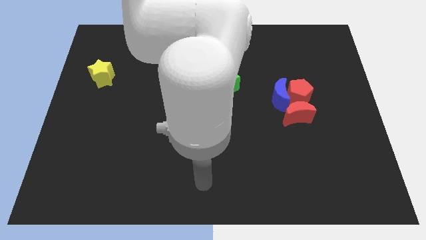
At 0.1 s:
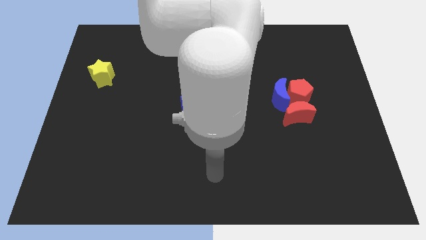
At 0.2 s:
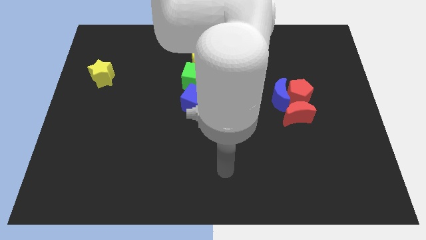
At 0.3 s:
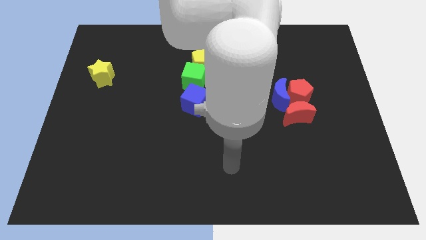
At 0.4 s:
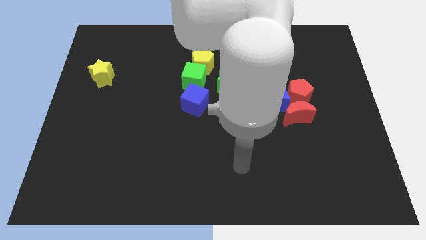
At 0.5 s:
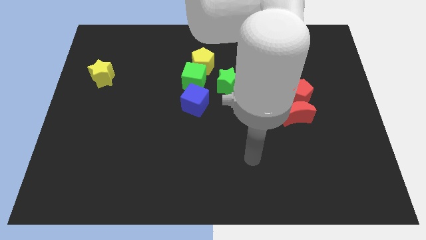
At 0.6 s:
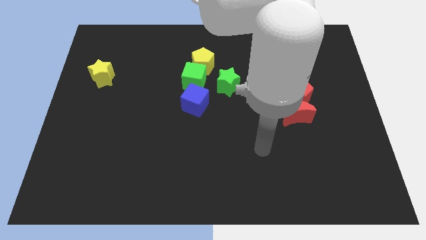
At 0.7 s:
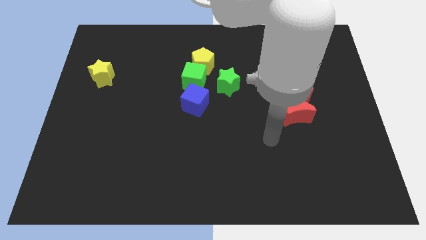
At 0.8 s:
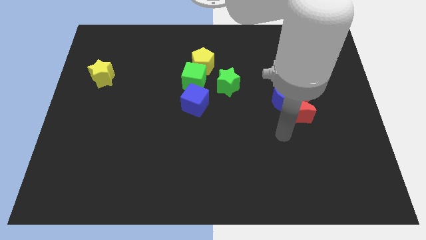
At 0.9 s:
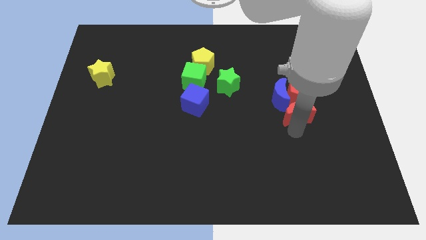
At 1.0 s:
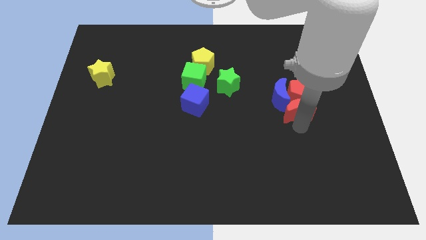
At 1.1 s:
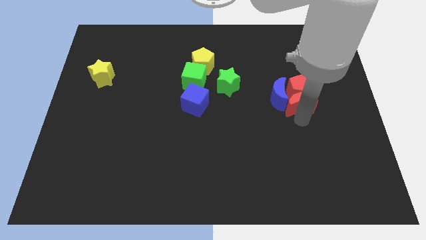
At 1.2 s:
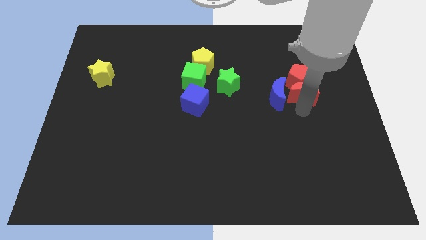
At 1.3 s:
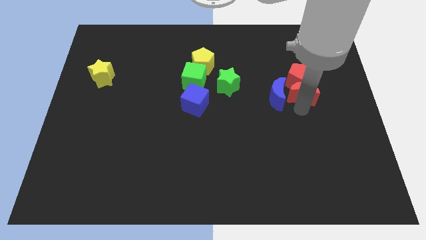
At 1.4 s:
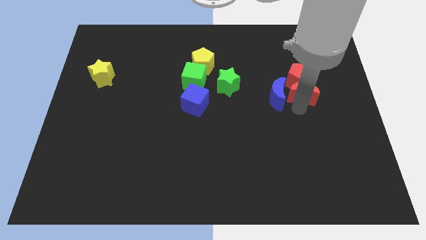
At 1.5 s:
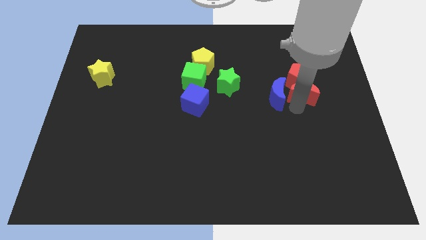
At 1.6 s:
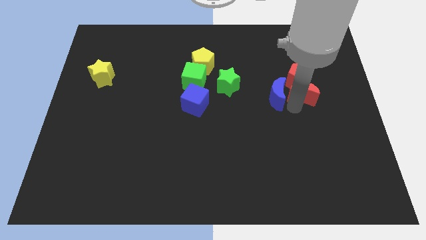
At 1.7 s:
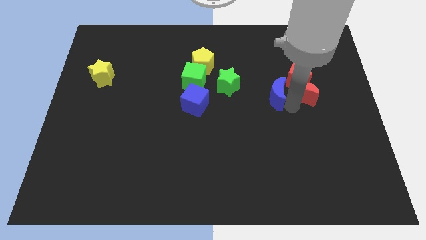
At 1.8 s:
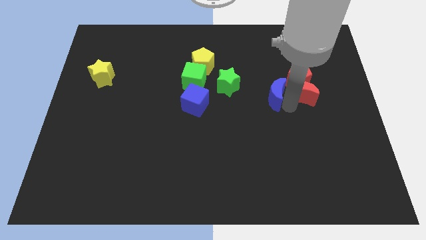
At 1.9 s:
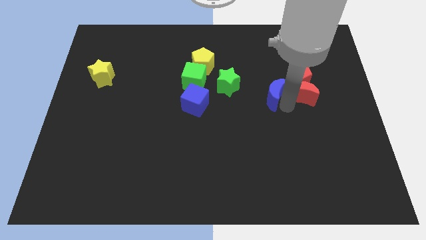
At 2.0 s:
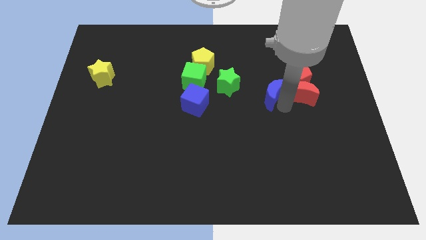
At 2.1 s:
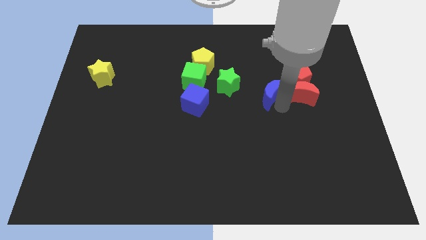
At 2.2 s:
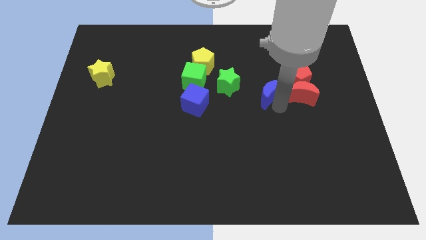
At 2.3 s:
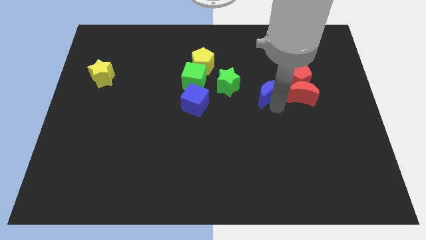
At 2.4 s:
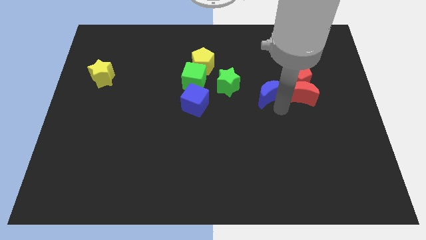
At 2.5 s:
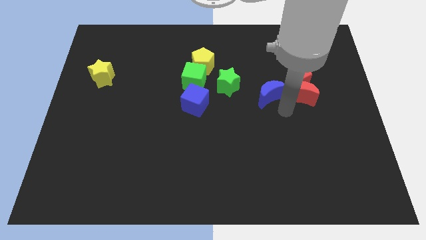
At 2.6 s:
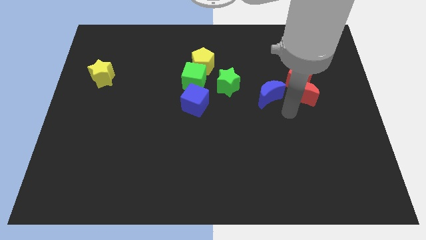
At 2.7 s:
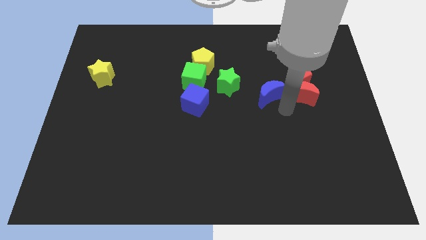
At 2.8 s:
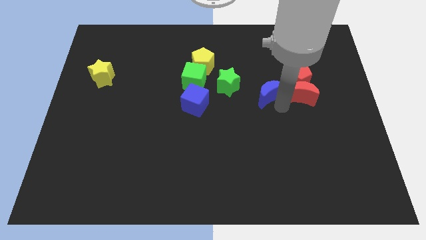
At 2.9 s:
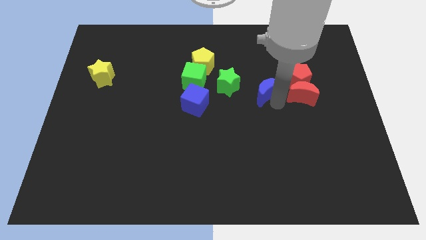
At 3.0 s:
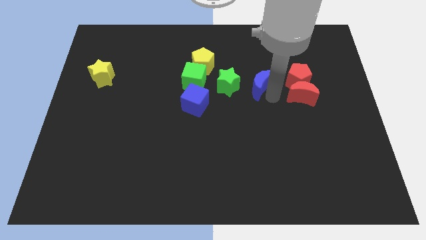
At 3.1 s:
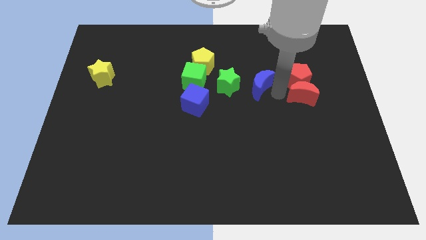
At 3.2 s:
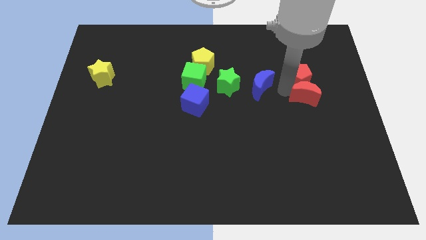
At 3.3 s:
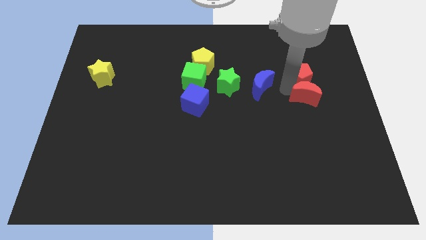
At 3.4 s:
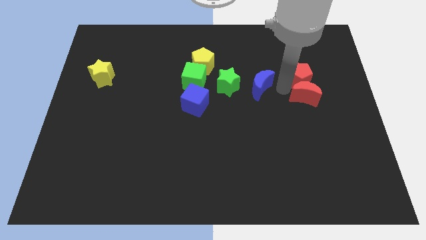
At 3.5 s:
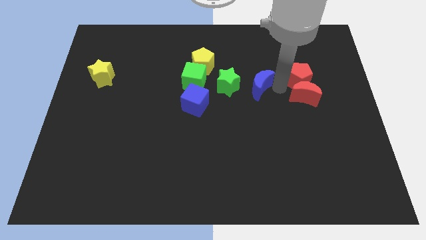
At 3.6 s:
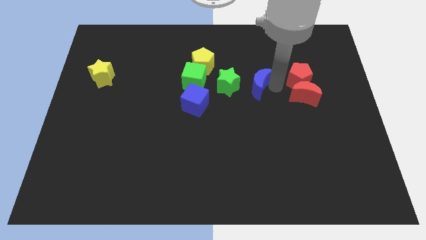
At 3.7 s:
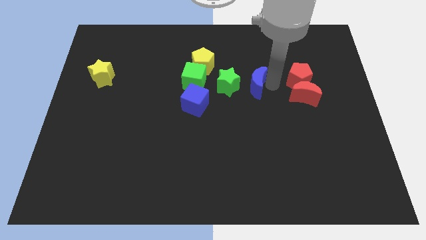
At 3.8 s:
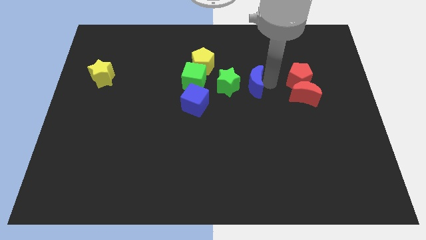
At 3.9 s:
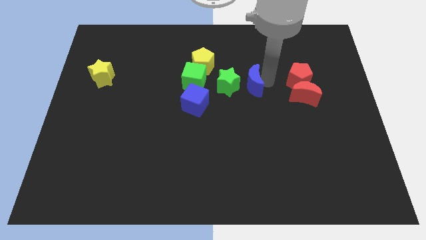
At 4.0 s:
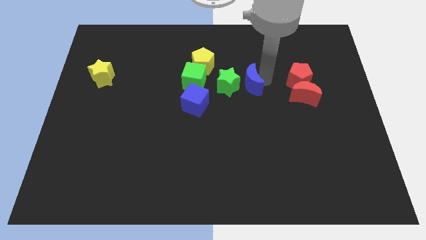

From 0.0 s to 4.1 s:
push the blue moon close to the green star

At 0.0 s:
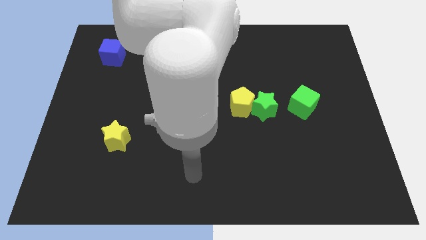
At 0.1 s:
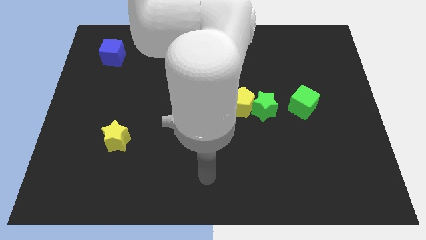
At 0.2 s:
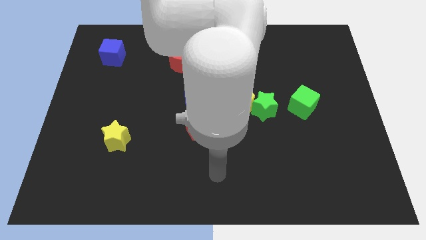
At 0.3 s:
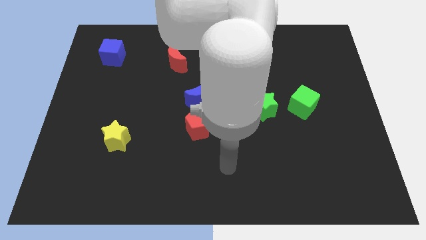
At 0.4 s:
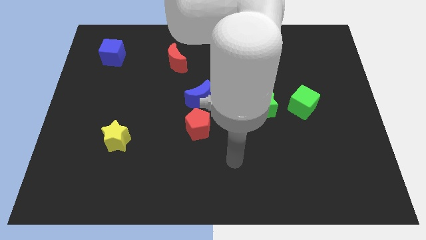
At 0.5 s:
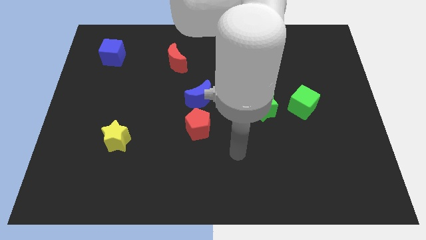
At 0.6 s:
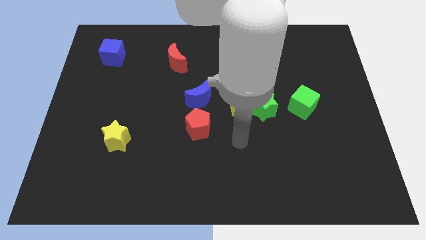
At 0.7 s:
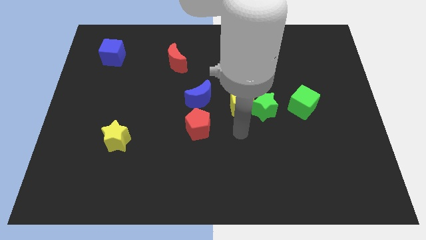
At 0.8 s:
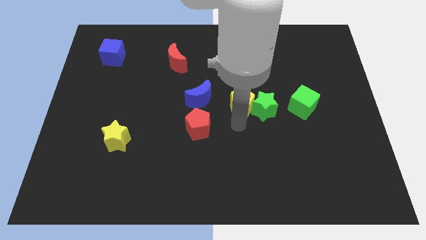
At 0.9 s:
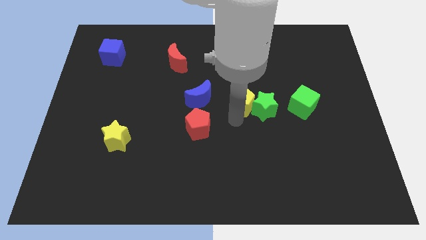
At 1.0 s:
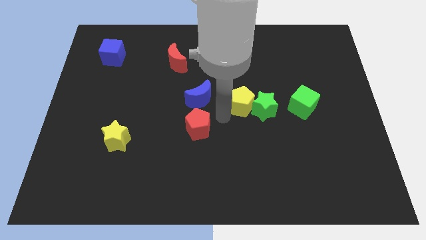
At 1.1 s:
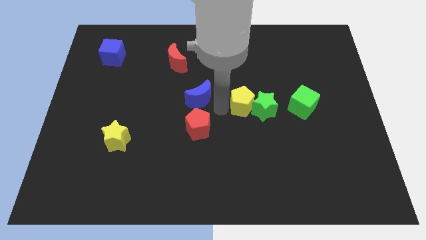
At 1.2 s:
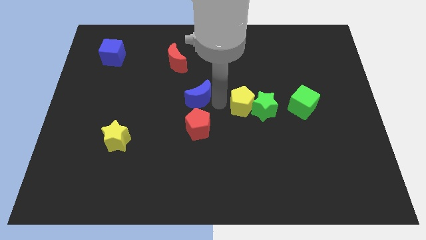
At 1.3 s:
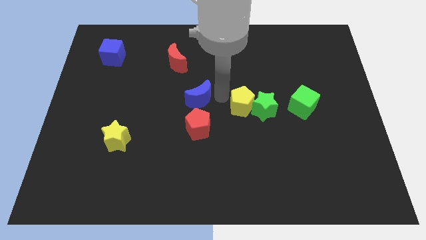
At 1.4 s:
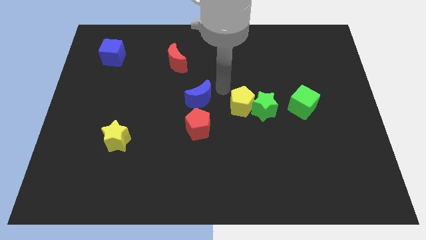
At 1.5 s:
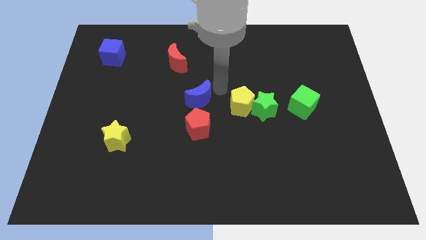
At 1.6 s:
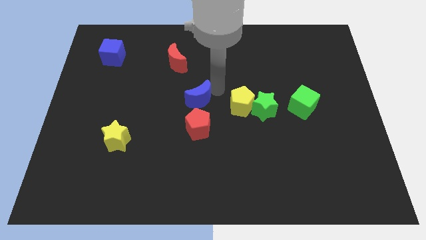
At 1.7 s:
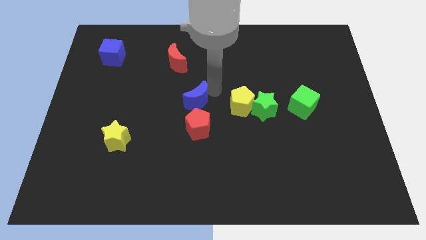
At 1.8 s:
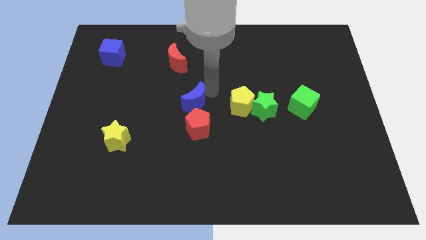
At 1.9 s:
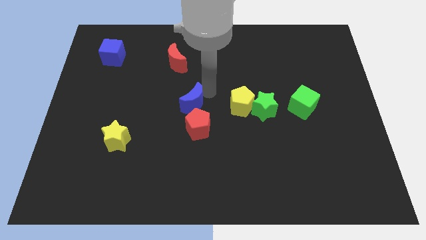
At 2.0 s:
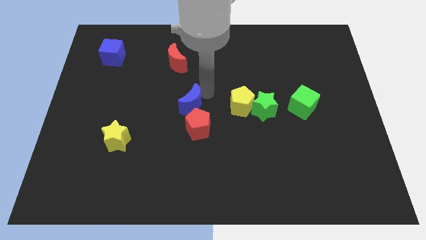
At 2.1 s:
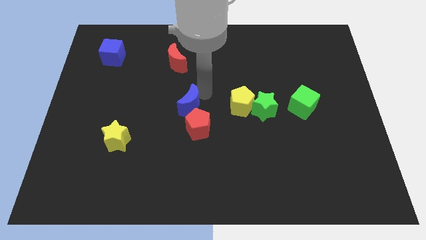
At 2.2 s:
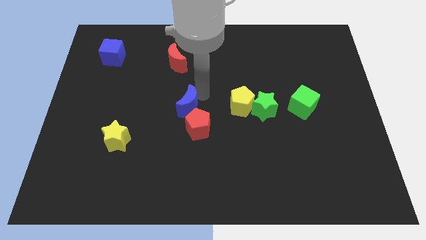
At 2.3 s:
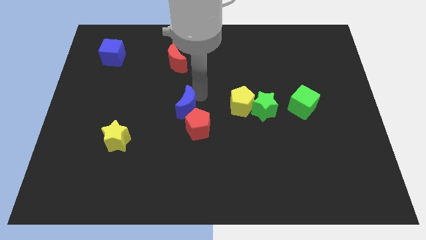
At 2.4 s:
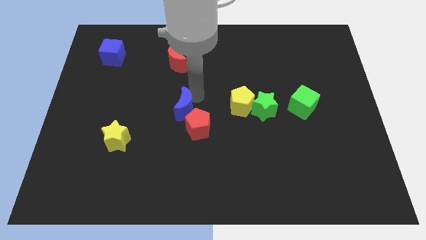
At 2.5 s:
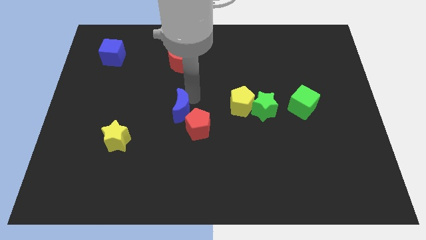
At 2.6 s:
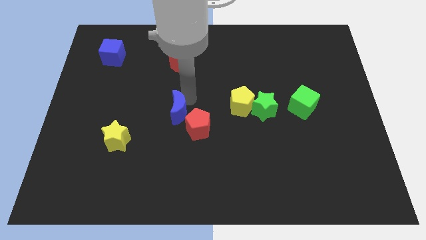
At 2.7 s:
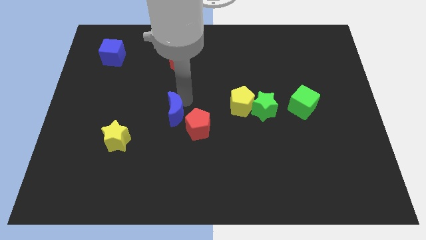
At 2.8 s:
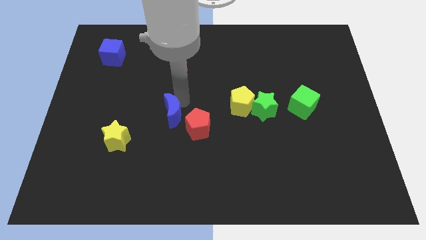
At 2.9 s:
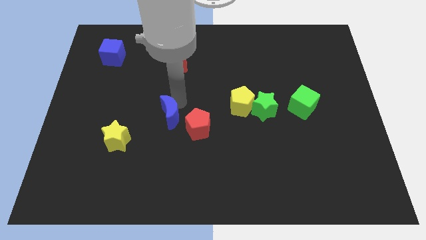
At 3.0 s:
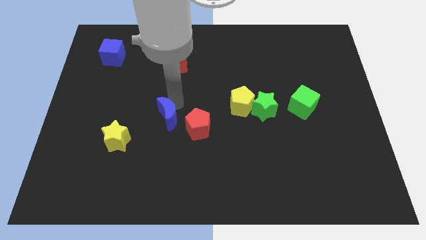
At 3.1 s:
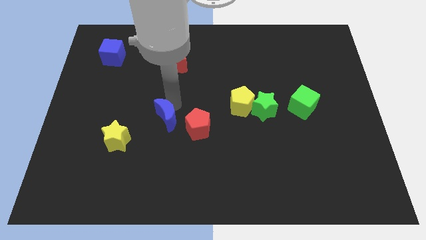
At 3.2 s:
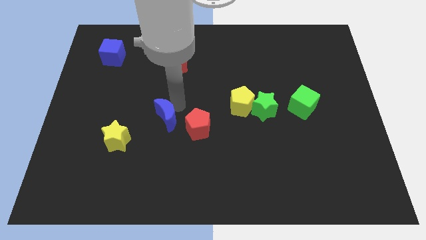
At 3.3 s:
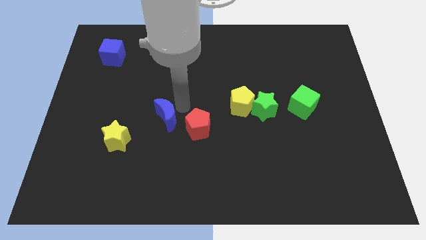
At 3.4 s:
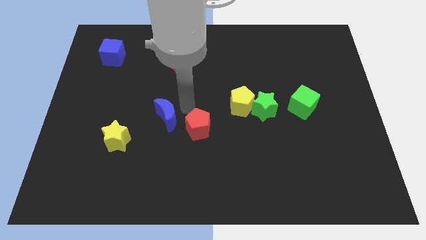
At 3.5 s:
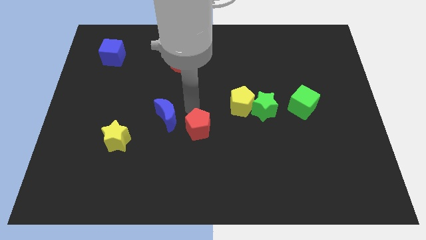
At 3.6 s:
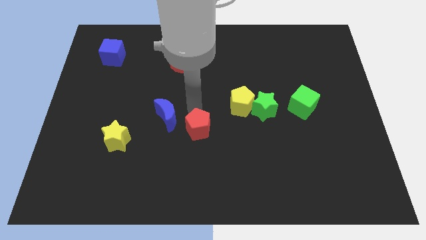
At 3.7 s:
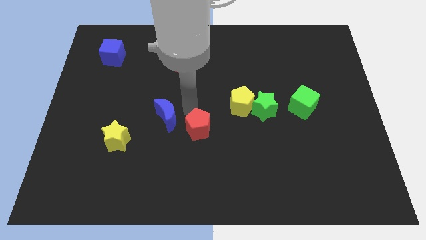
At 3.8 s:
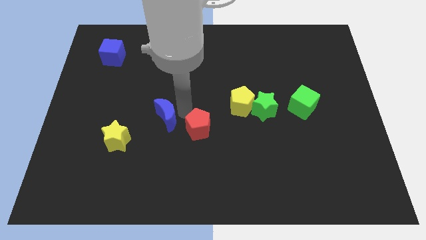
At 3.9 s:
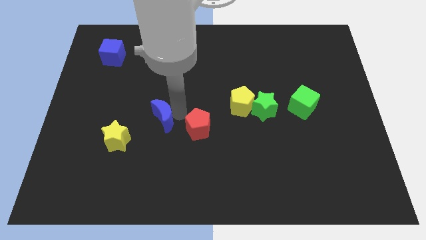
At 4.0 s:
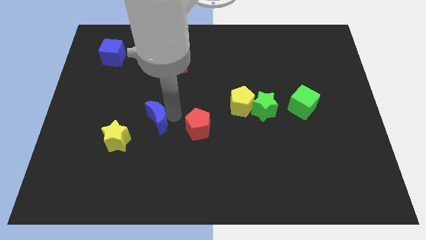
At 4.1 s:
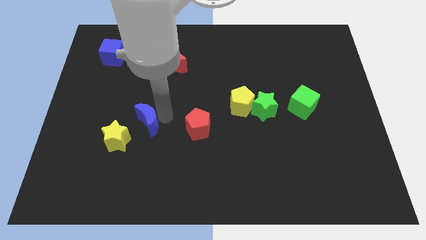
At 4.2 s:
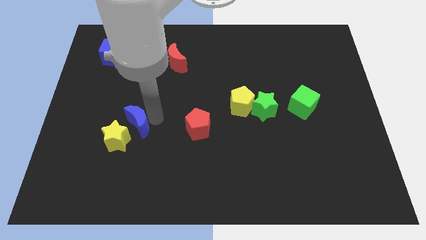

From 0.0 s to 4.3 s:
put the blue moon close to the yellow star
